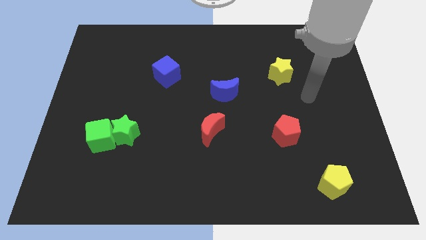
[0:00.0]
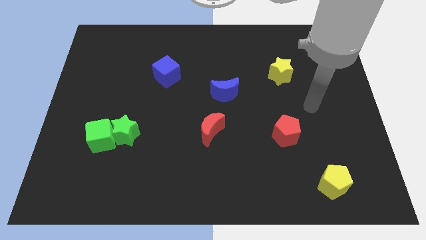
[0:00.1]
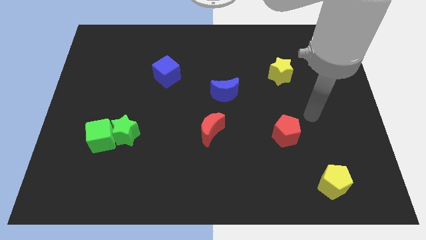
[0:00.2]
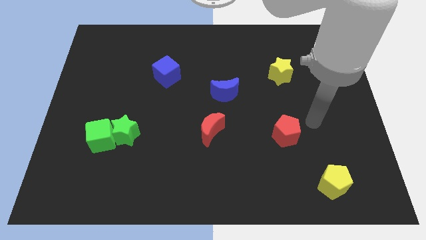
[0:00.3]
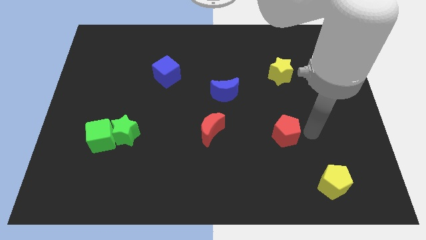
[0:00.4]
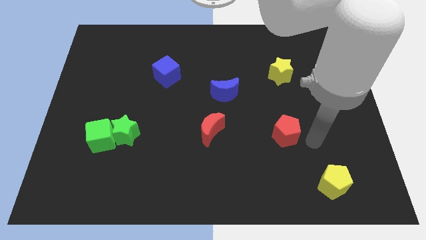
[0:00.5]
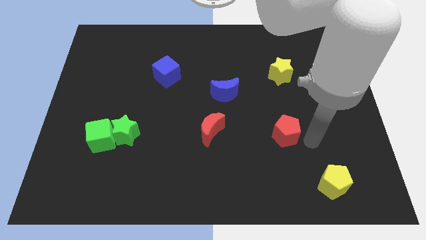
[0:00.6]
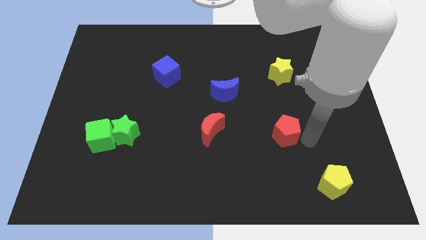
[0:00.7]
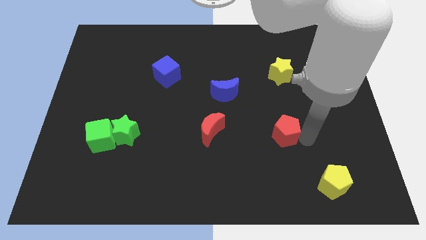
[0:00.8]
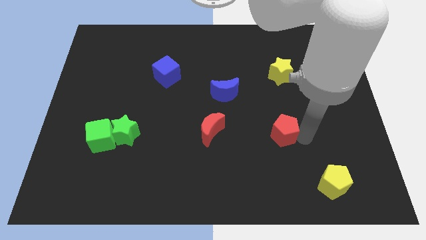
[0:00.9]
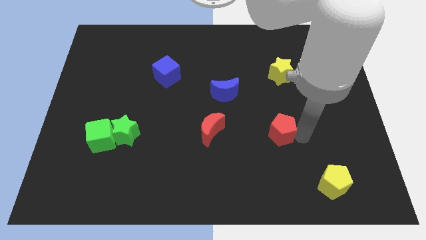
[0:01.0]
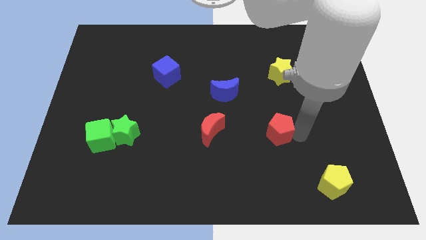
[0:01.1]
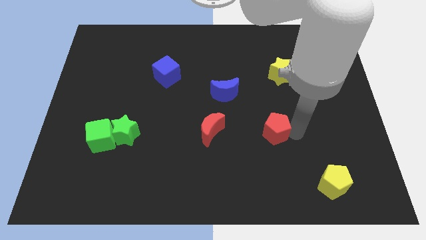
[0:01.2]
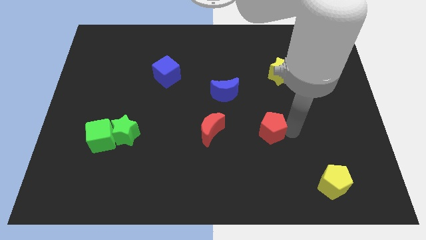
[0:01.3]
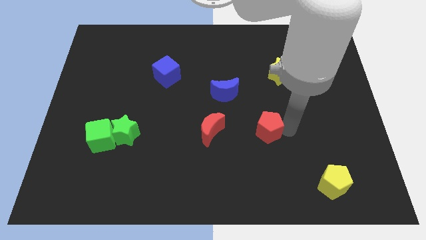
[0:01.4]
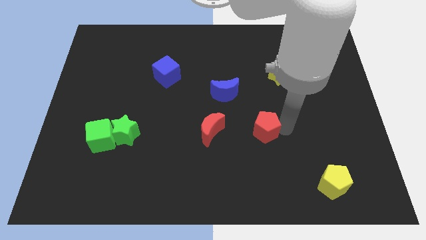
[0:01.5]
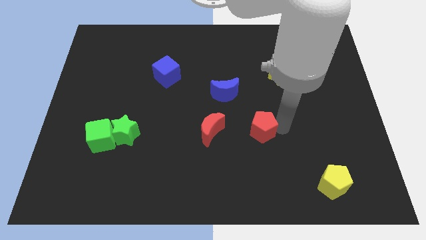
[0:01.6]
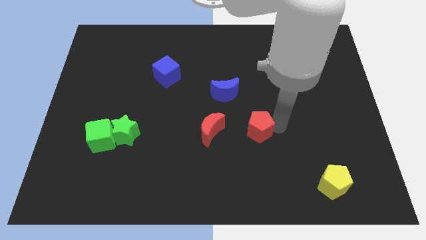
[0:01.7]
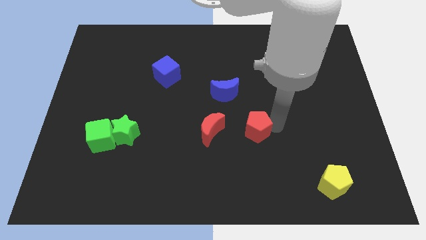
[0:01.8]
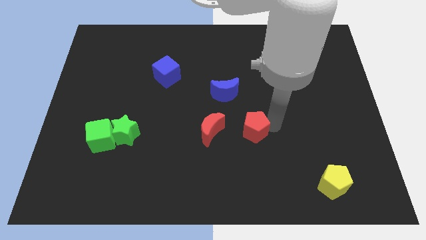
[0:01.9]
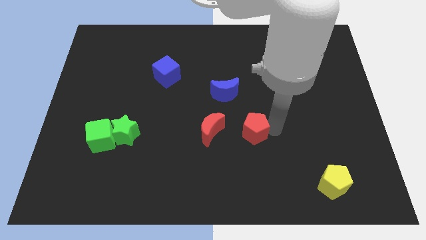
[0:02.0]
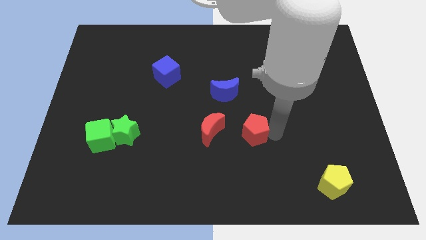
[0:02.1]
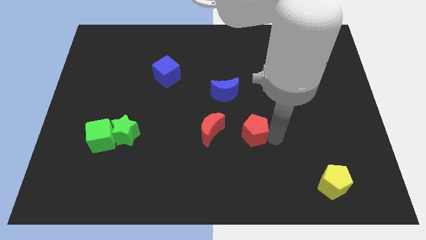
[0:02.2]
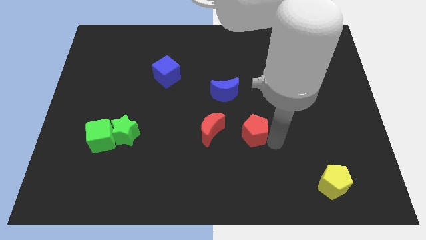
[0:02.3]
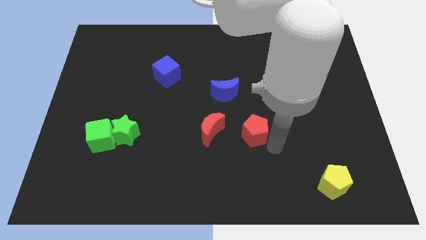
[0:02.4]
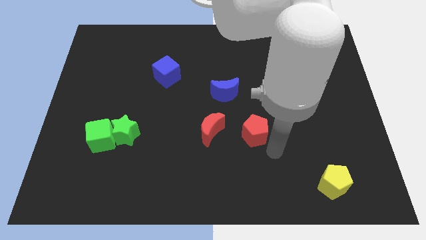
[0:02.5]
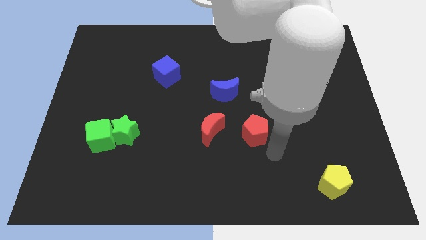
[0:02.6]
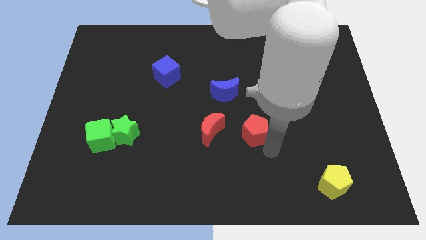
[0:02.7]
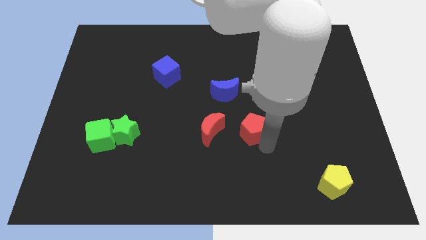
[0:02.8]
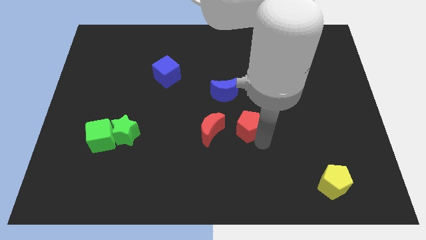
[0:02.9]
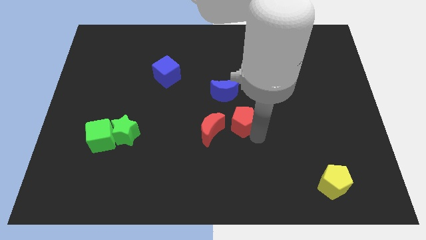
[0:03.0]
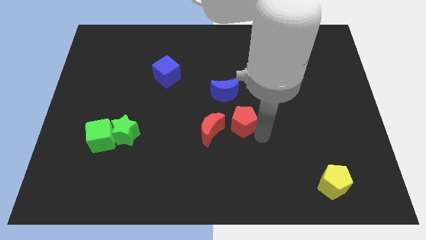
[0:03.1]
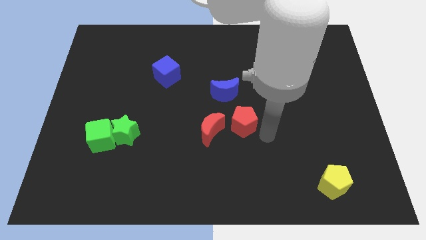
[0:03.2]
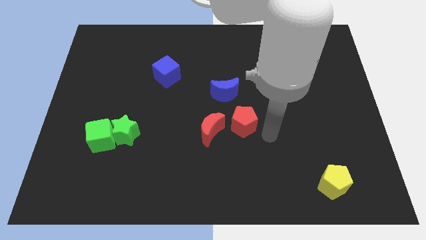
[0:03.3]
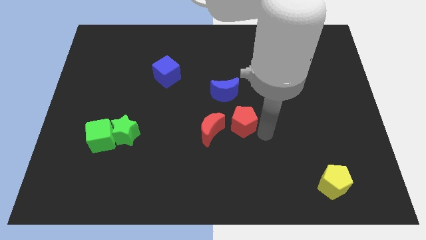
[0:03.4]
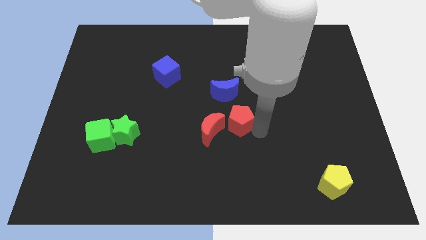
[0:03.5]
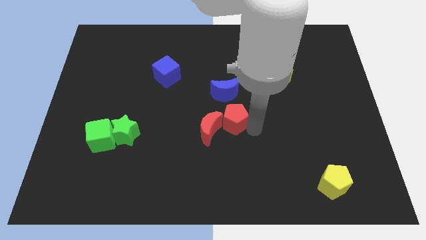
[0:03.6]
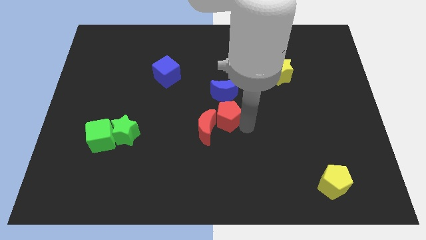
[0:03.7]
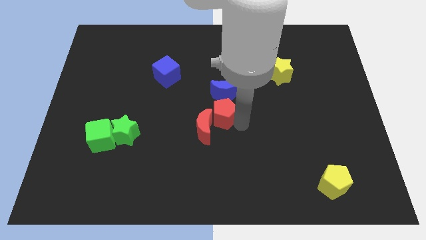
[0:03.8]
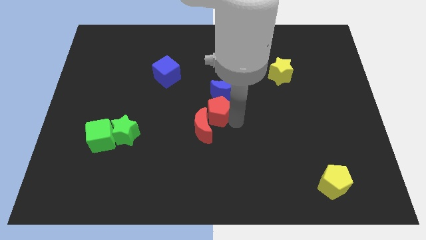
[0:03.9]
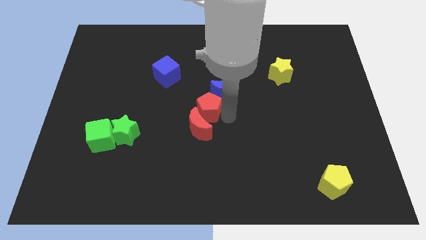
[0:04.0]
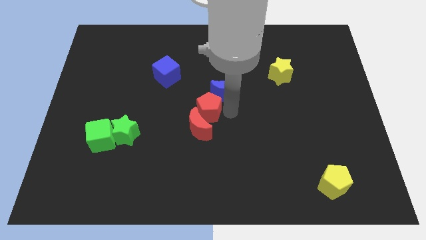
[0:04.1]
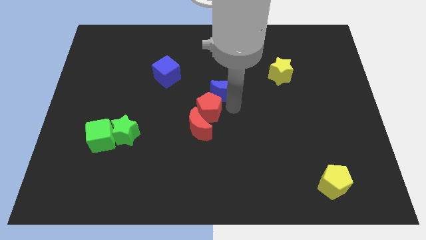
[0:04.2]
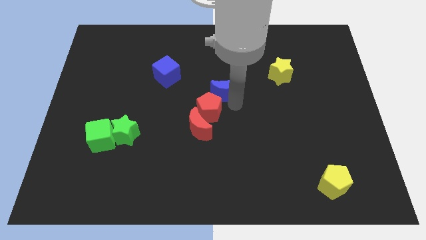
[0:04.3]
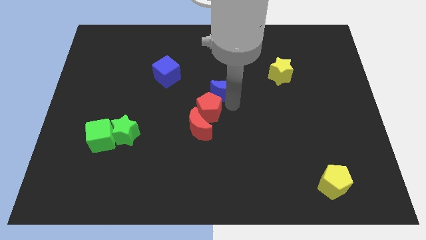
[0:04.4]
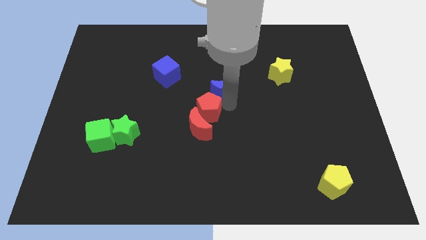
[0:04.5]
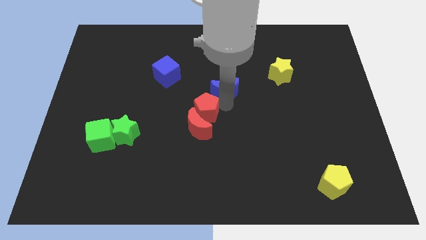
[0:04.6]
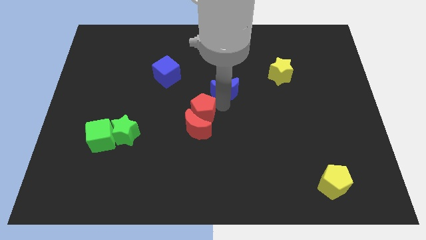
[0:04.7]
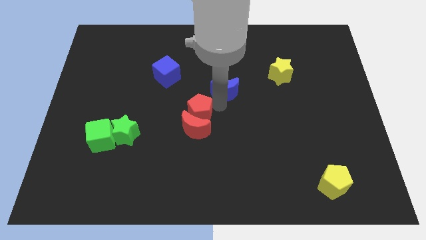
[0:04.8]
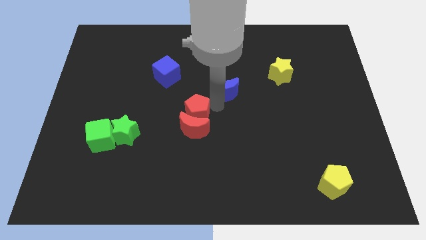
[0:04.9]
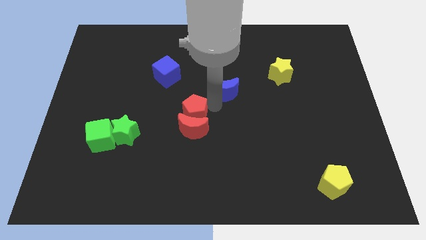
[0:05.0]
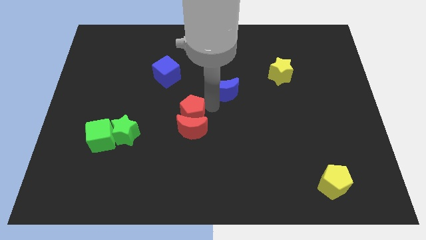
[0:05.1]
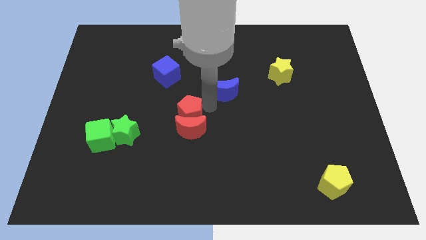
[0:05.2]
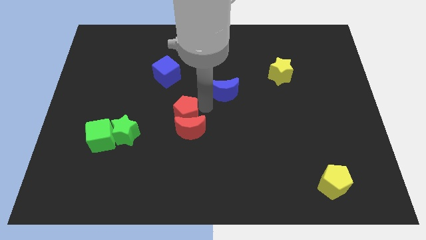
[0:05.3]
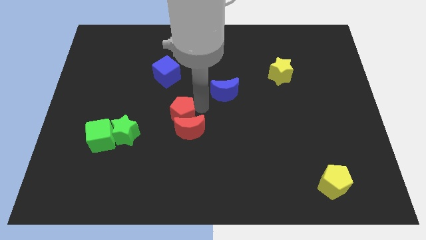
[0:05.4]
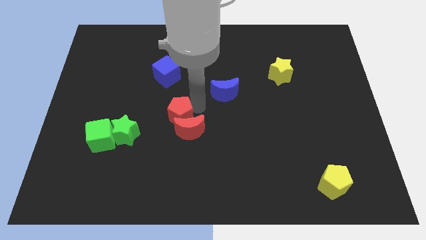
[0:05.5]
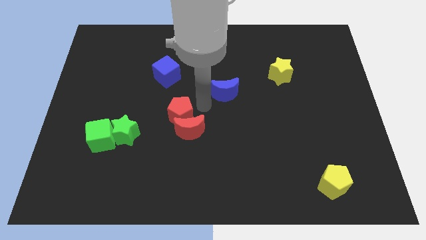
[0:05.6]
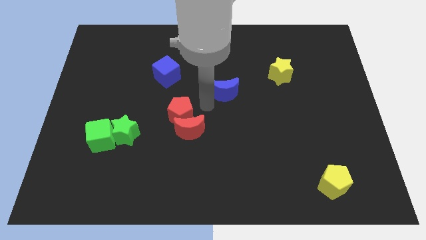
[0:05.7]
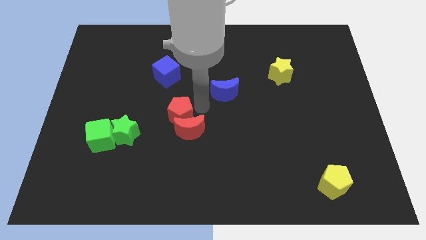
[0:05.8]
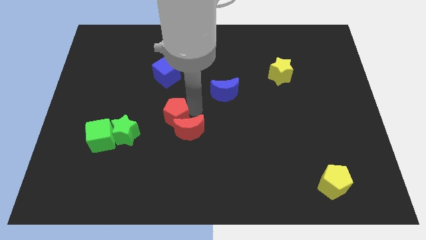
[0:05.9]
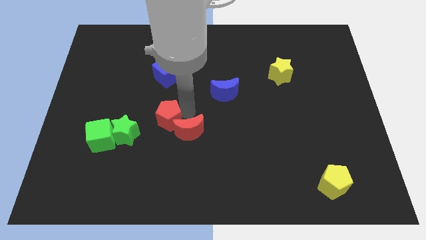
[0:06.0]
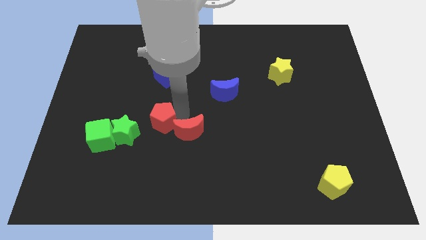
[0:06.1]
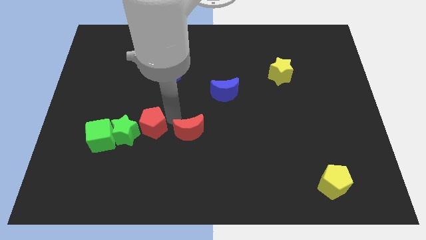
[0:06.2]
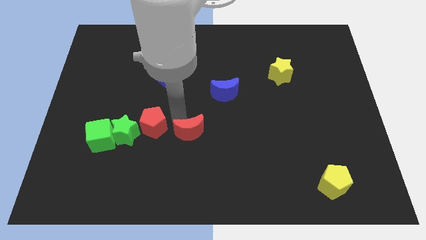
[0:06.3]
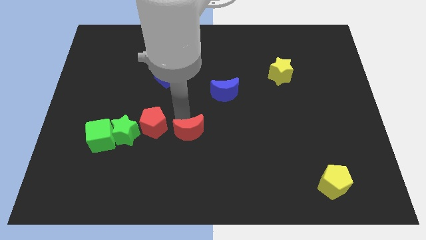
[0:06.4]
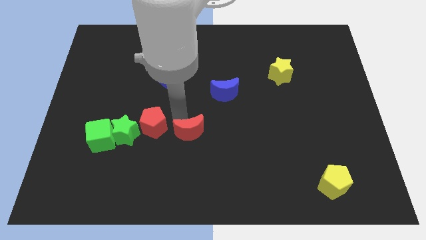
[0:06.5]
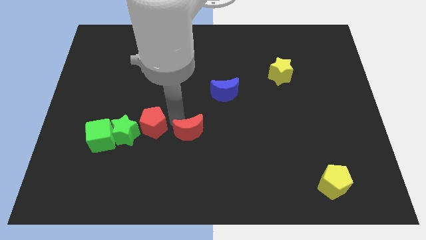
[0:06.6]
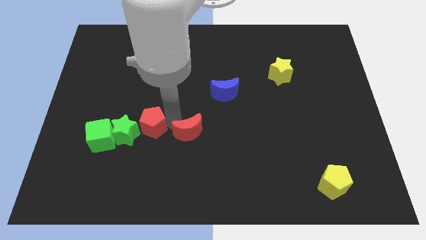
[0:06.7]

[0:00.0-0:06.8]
move the red pentagon close to the green star

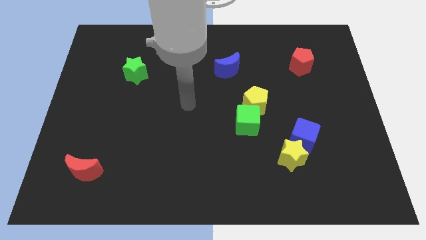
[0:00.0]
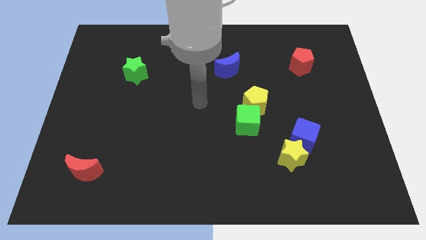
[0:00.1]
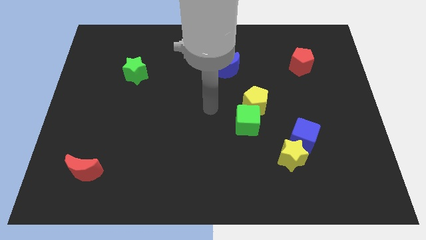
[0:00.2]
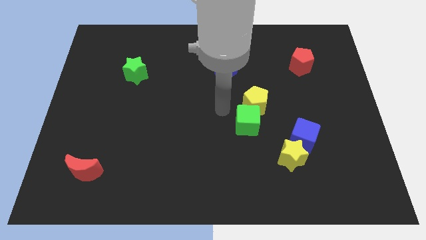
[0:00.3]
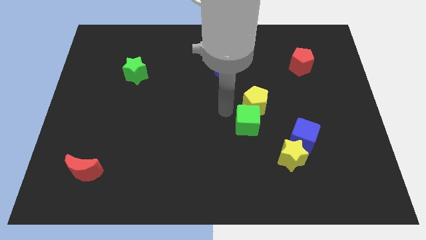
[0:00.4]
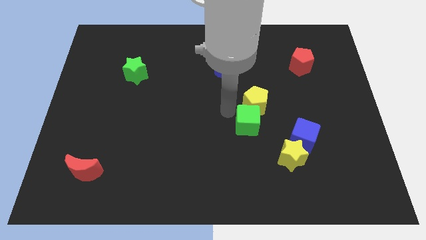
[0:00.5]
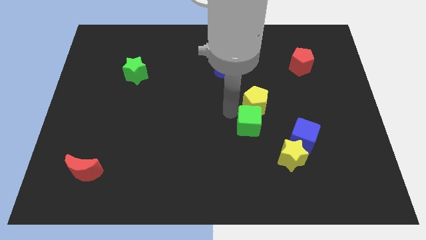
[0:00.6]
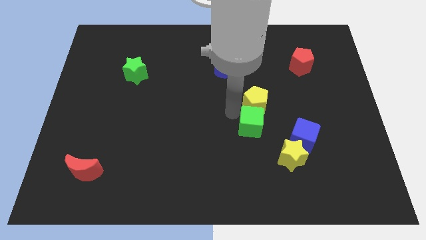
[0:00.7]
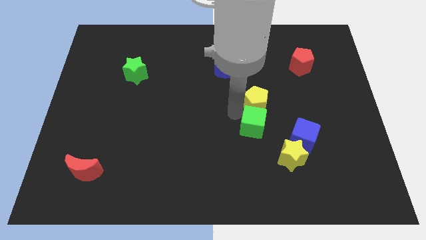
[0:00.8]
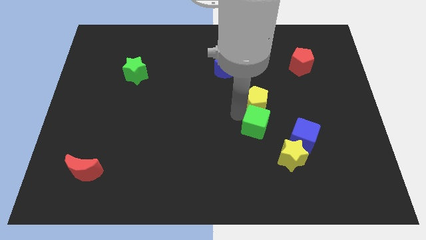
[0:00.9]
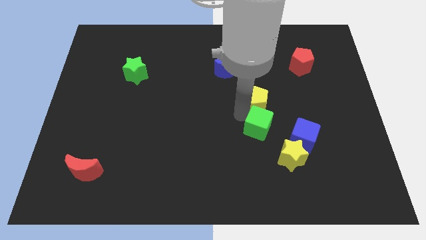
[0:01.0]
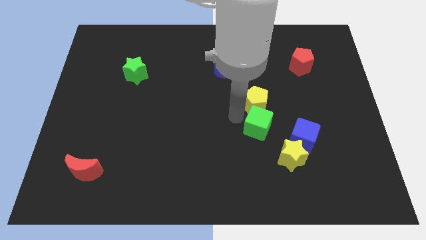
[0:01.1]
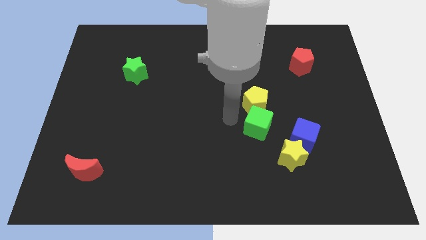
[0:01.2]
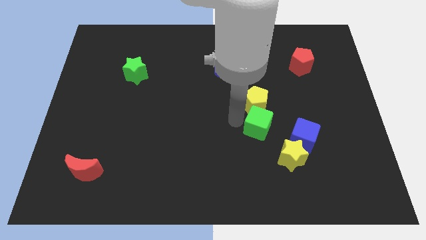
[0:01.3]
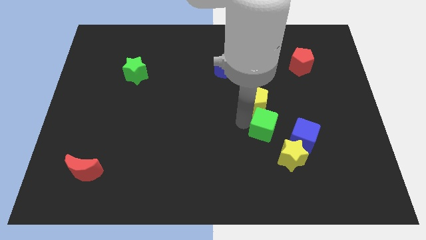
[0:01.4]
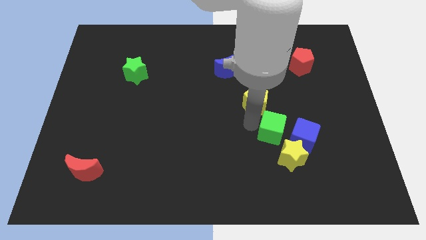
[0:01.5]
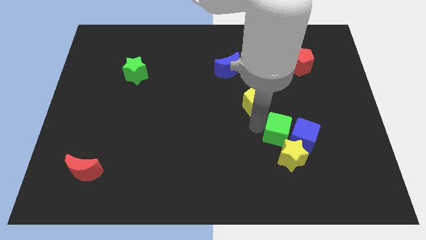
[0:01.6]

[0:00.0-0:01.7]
put the green cube next to the blue cube
